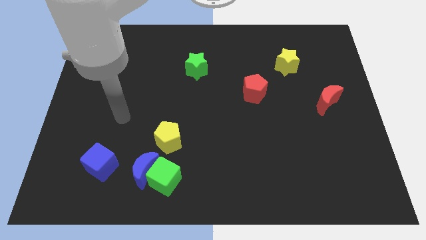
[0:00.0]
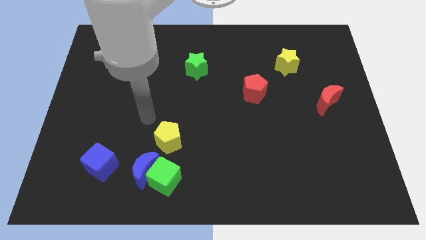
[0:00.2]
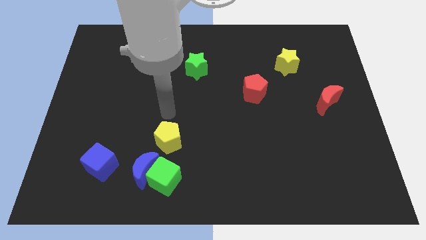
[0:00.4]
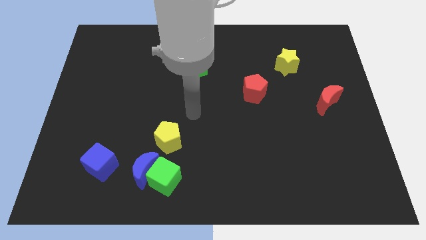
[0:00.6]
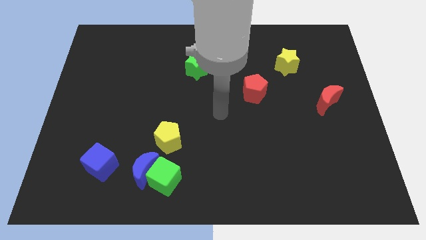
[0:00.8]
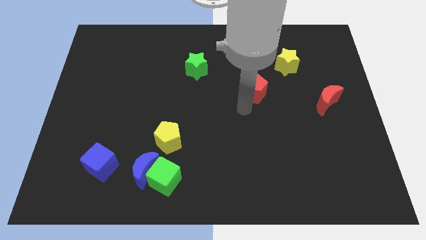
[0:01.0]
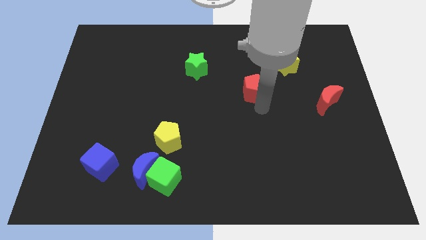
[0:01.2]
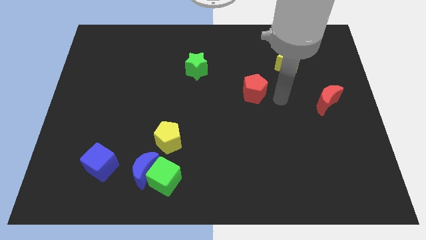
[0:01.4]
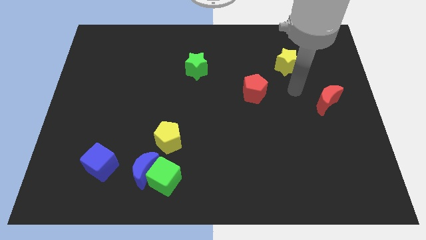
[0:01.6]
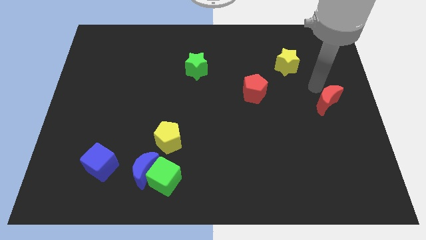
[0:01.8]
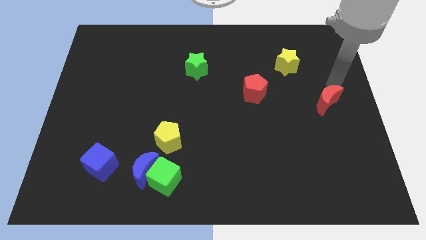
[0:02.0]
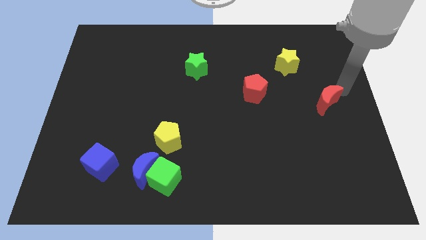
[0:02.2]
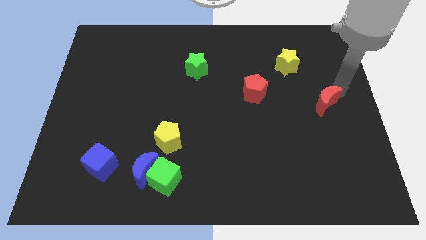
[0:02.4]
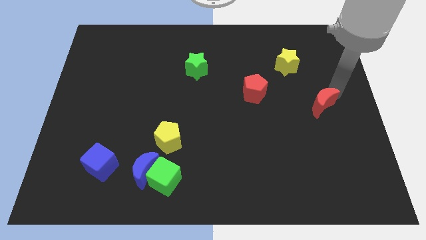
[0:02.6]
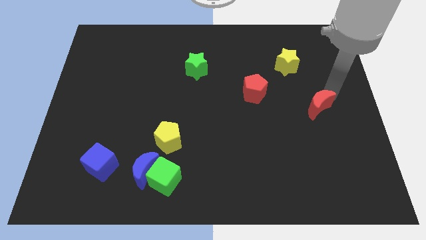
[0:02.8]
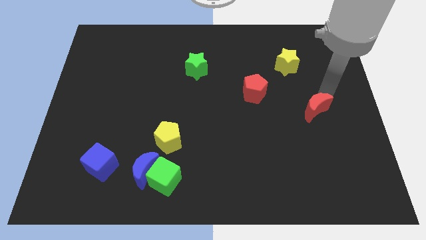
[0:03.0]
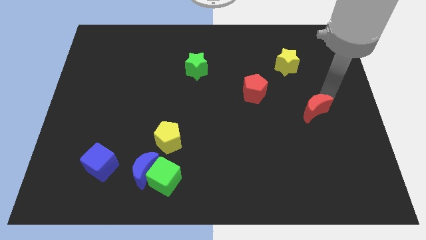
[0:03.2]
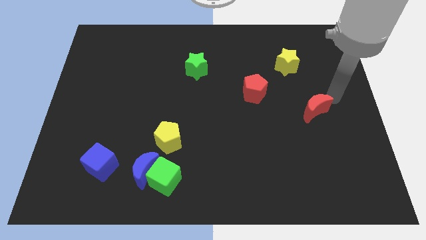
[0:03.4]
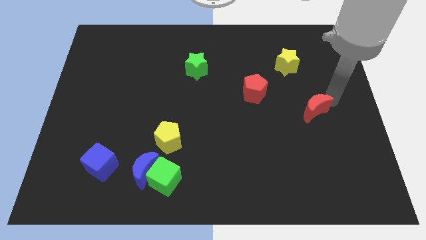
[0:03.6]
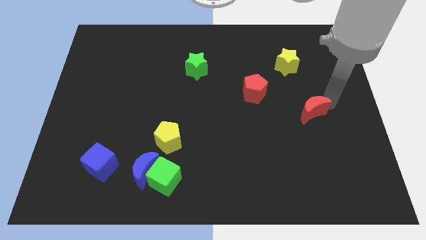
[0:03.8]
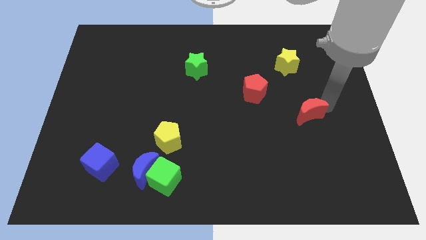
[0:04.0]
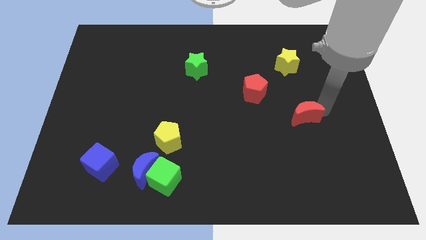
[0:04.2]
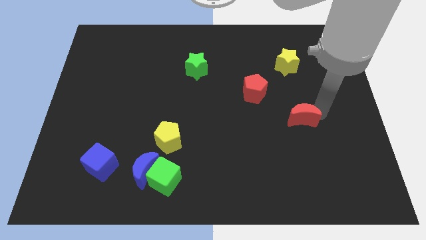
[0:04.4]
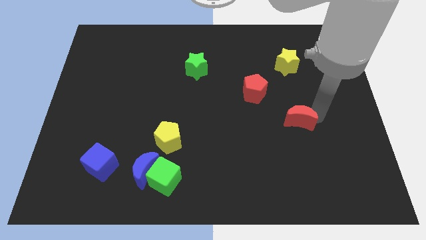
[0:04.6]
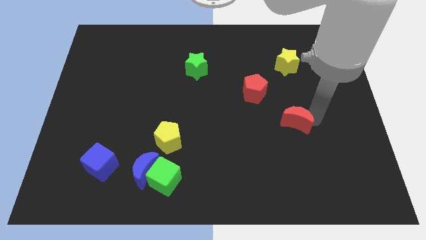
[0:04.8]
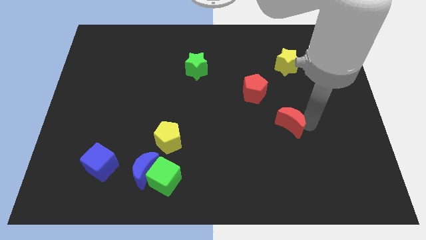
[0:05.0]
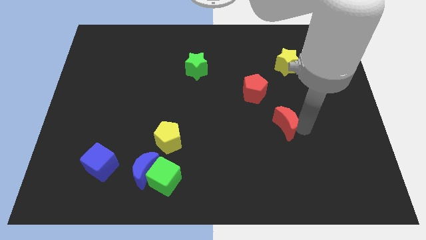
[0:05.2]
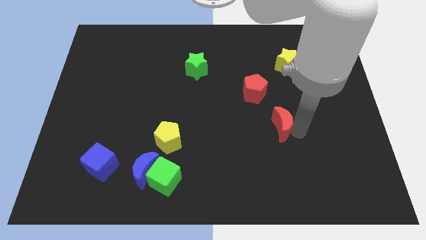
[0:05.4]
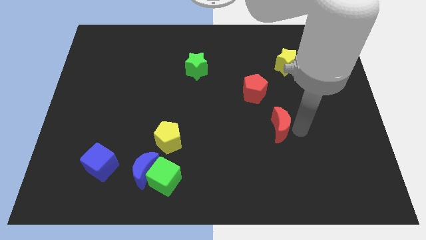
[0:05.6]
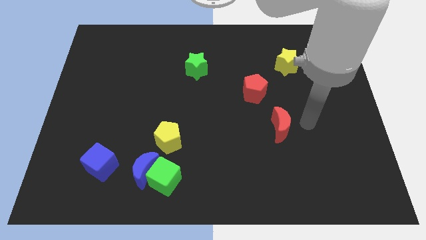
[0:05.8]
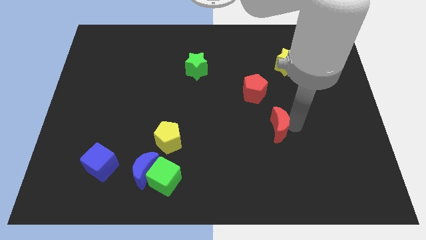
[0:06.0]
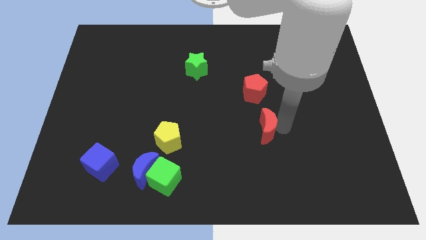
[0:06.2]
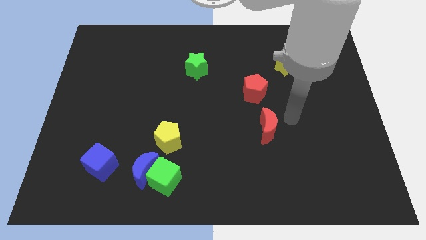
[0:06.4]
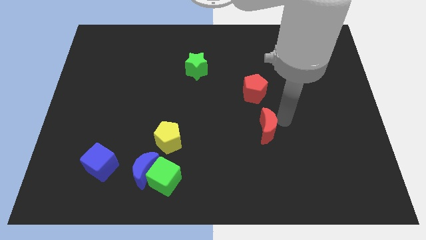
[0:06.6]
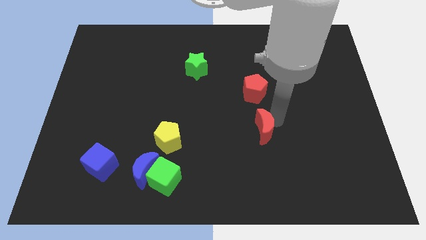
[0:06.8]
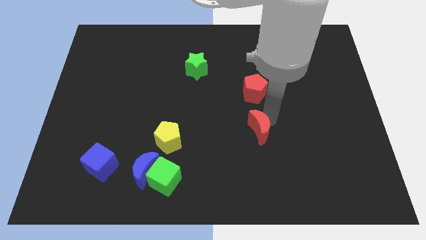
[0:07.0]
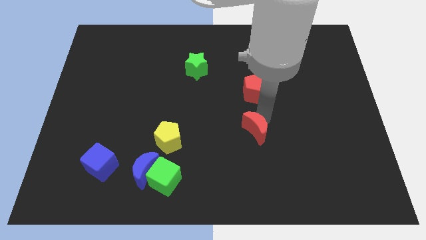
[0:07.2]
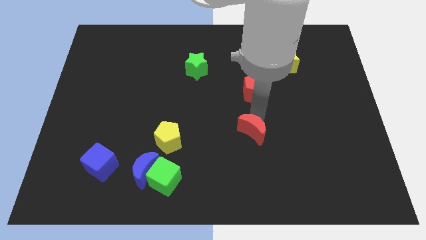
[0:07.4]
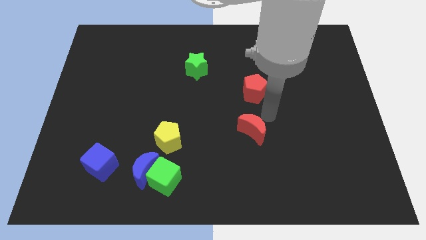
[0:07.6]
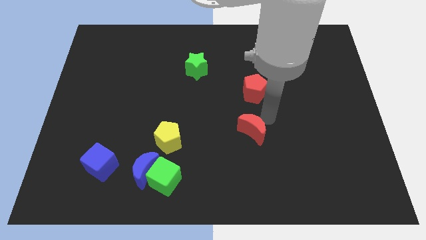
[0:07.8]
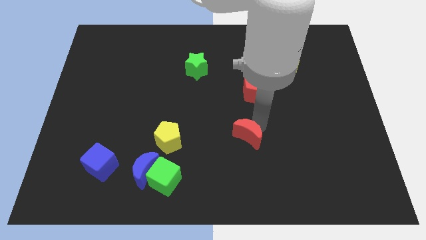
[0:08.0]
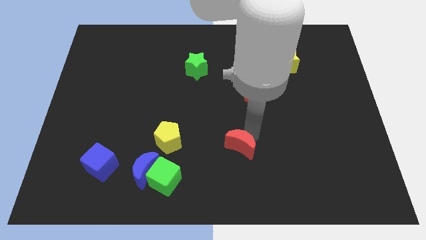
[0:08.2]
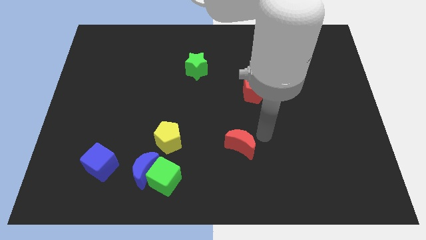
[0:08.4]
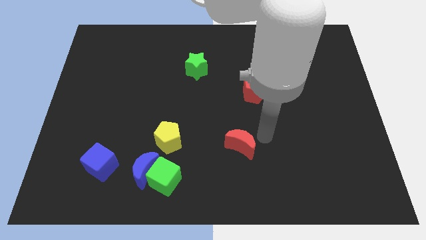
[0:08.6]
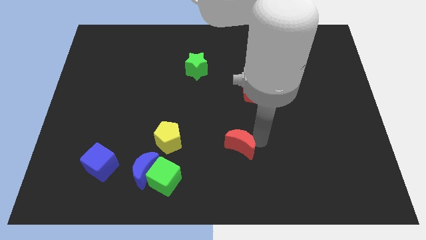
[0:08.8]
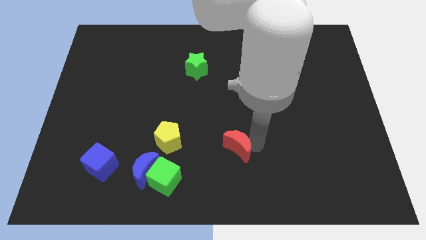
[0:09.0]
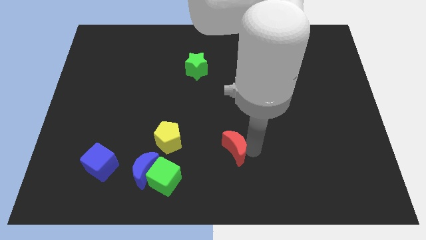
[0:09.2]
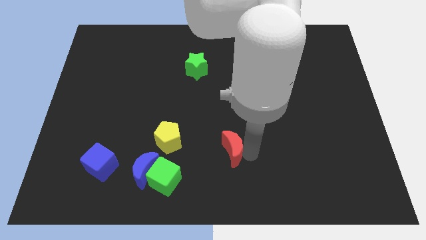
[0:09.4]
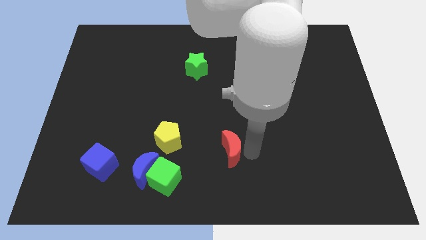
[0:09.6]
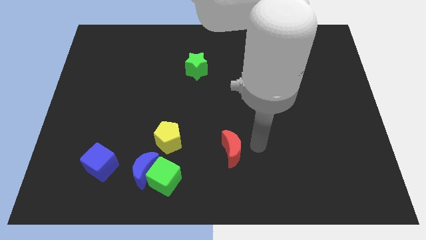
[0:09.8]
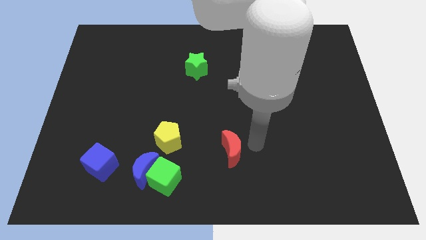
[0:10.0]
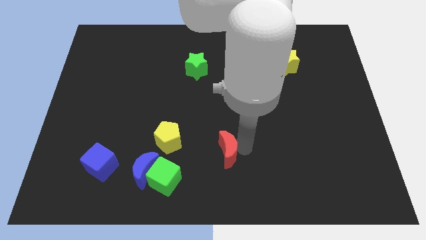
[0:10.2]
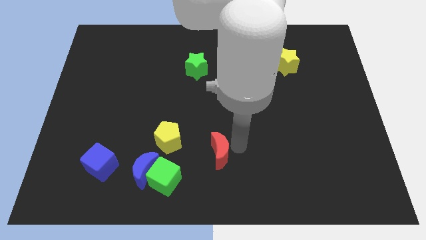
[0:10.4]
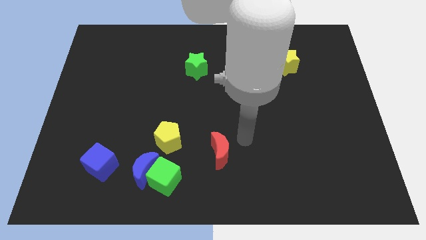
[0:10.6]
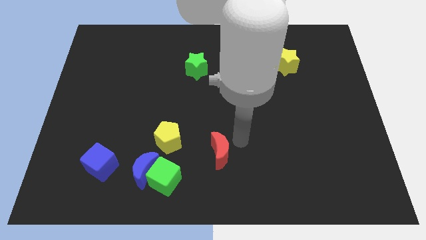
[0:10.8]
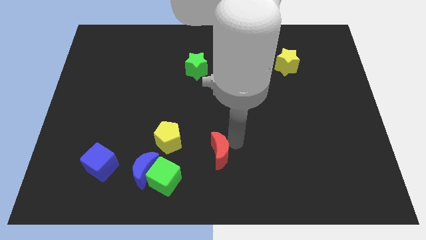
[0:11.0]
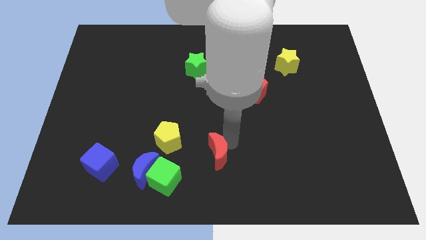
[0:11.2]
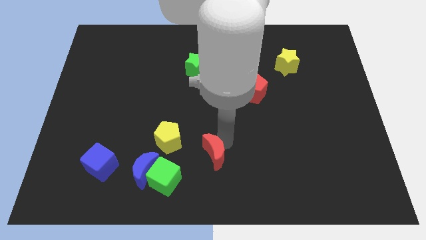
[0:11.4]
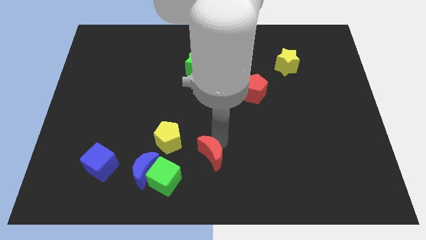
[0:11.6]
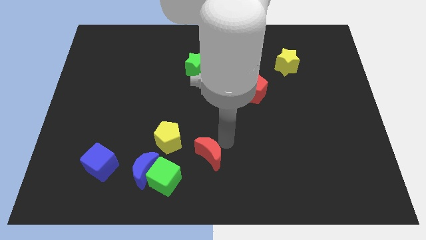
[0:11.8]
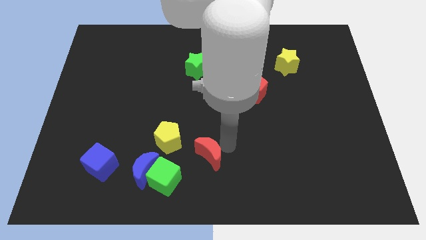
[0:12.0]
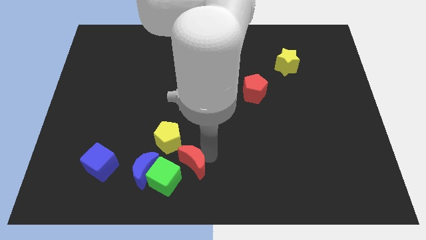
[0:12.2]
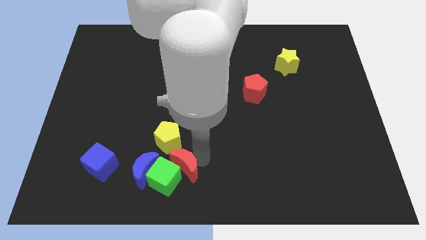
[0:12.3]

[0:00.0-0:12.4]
push the red moon to the green cube
